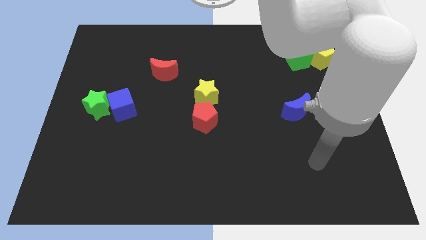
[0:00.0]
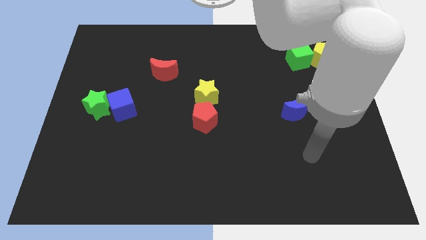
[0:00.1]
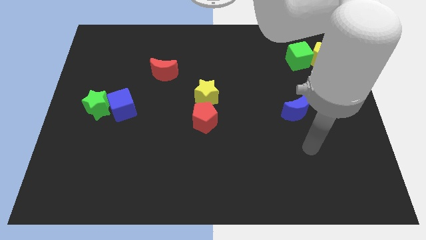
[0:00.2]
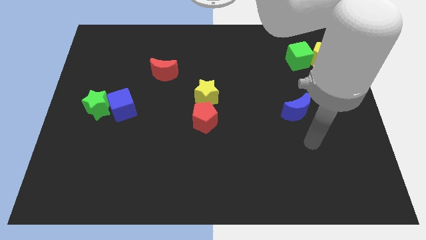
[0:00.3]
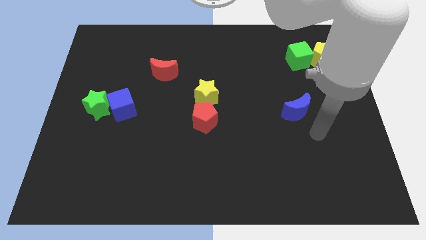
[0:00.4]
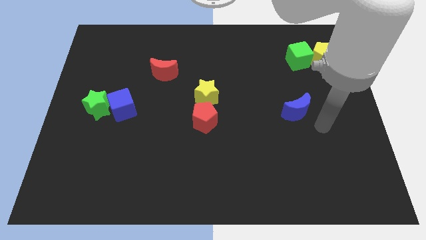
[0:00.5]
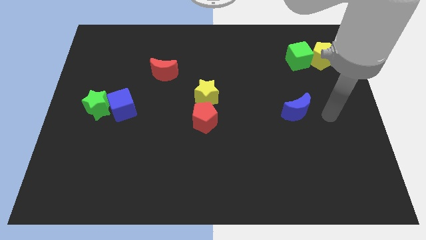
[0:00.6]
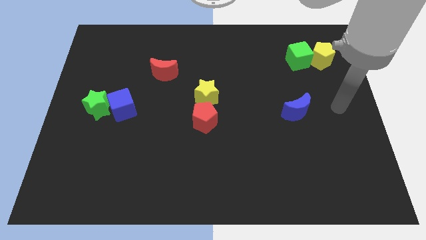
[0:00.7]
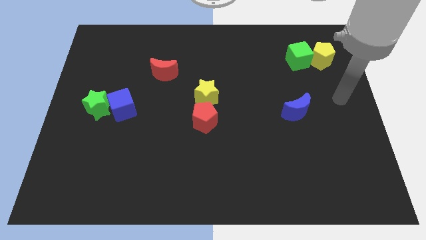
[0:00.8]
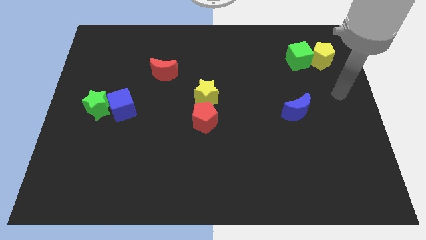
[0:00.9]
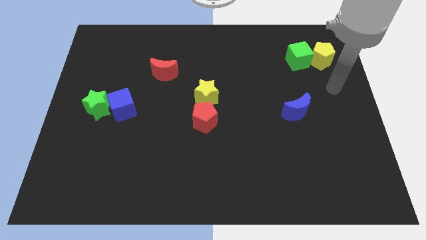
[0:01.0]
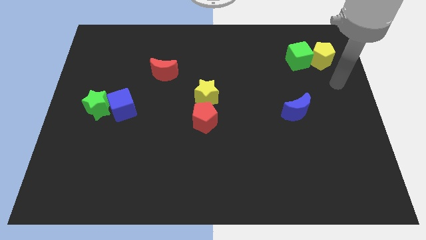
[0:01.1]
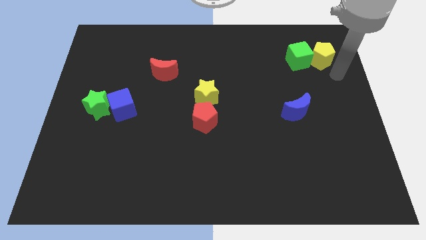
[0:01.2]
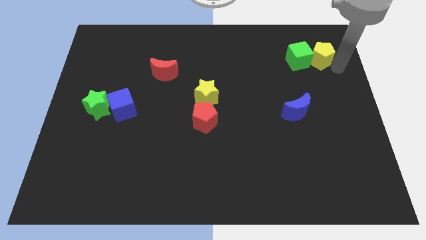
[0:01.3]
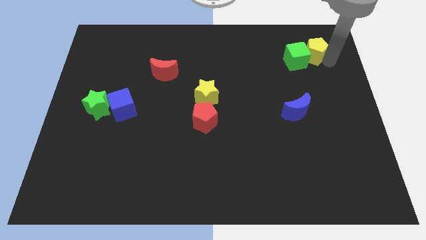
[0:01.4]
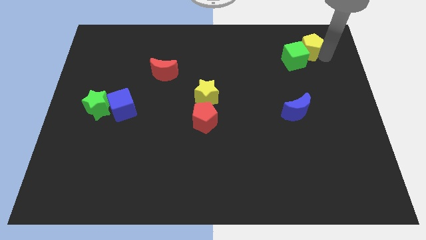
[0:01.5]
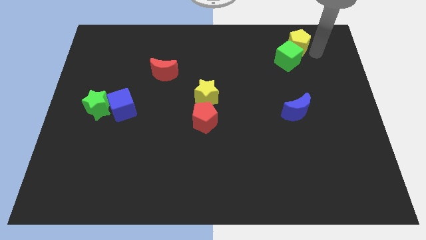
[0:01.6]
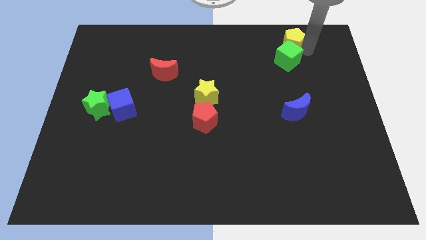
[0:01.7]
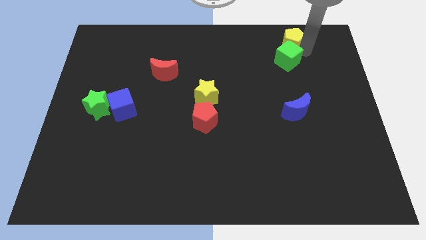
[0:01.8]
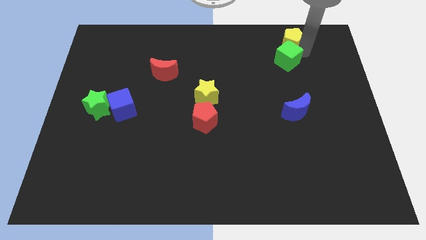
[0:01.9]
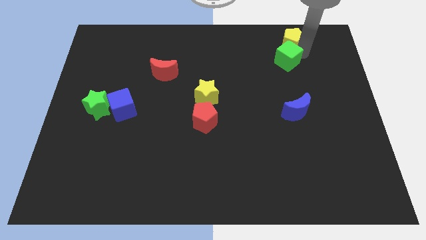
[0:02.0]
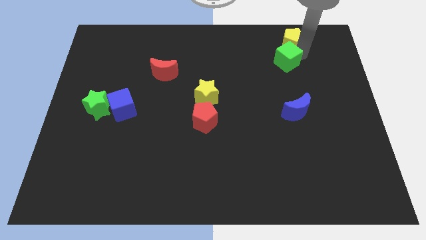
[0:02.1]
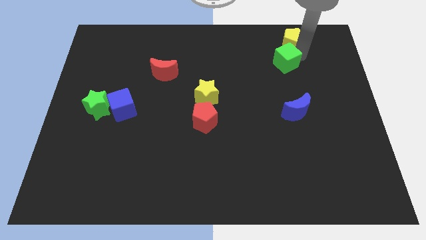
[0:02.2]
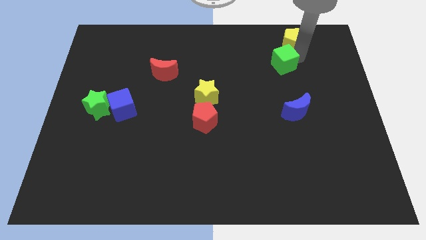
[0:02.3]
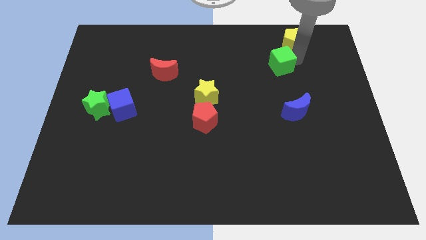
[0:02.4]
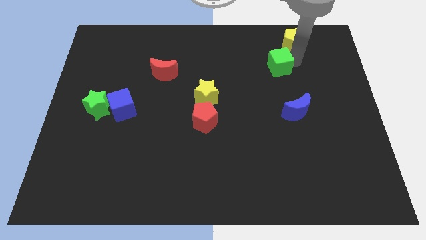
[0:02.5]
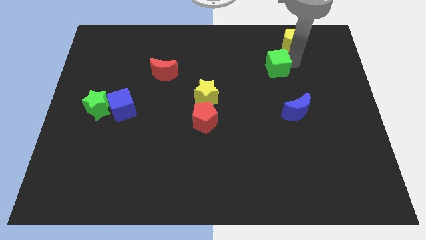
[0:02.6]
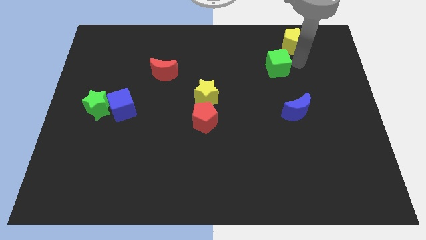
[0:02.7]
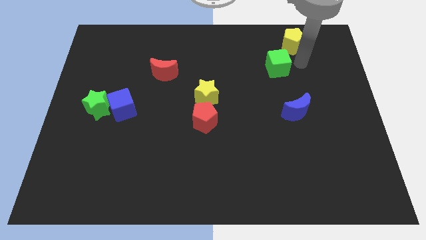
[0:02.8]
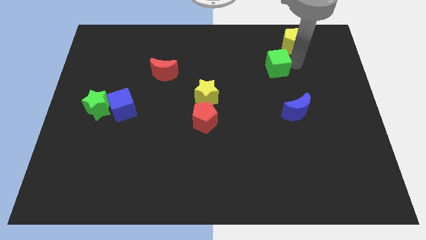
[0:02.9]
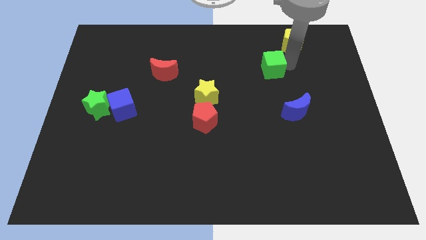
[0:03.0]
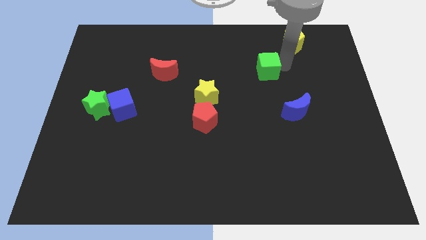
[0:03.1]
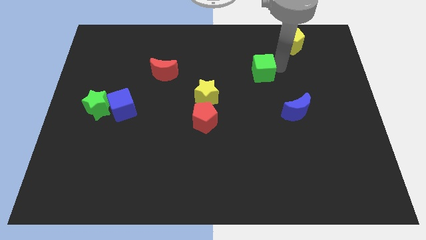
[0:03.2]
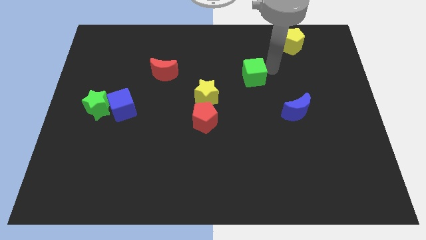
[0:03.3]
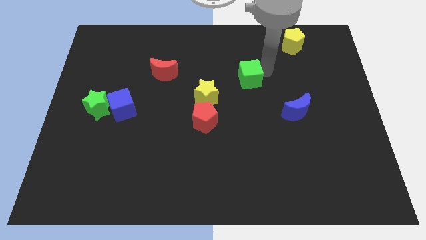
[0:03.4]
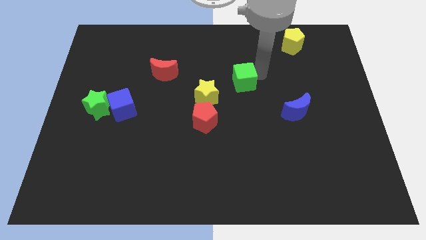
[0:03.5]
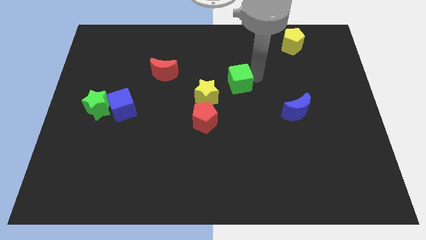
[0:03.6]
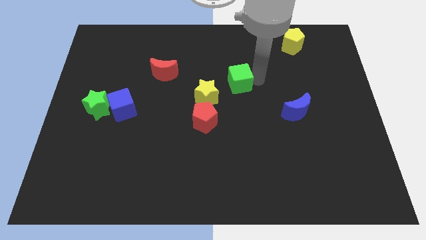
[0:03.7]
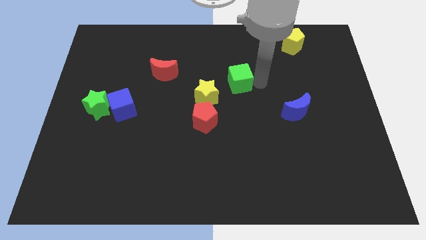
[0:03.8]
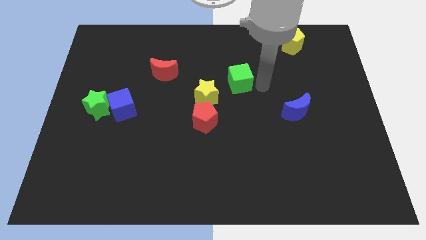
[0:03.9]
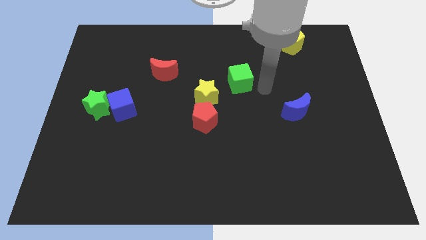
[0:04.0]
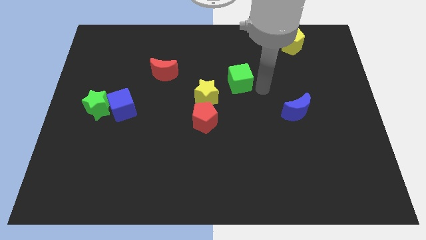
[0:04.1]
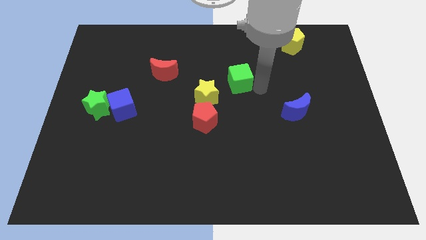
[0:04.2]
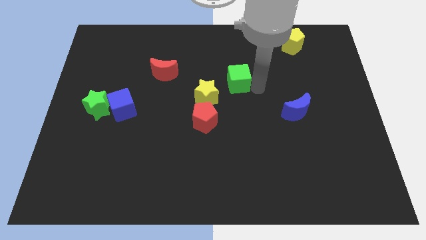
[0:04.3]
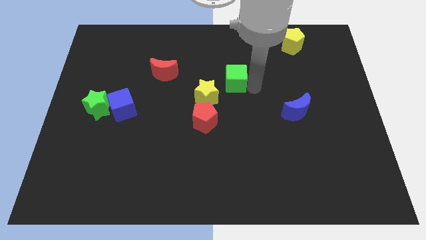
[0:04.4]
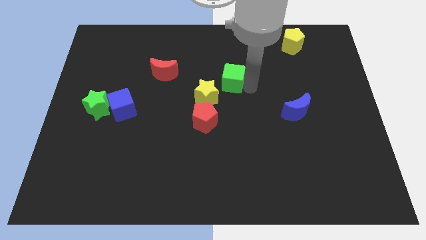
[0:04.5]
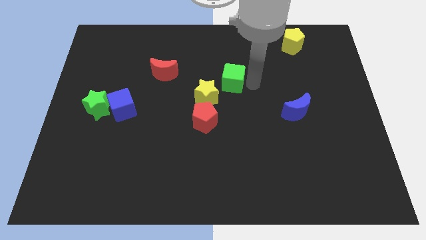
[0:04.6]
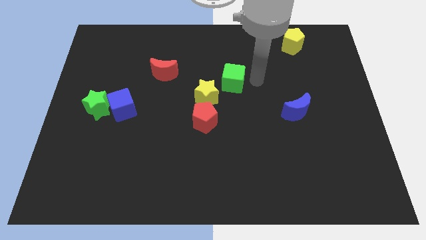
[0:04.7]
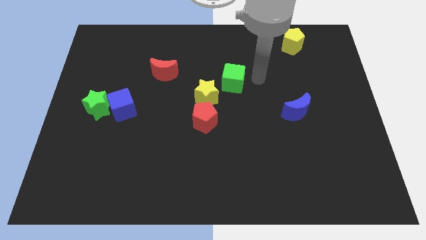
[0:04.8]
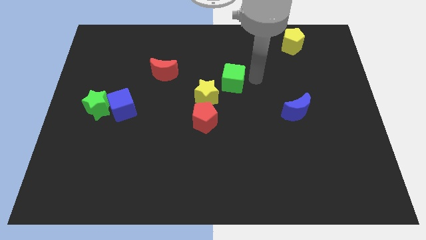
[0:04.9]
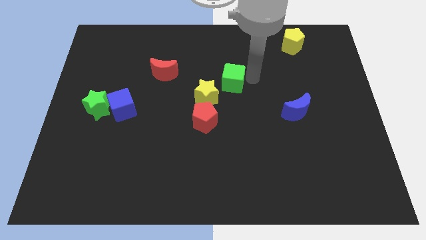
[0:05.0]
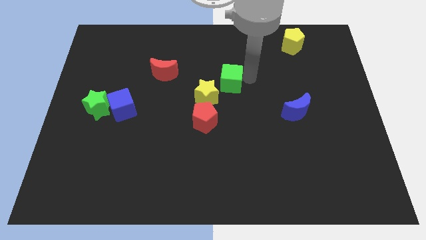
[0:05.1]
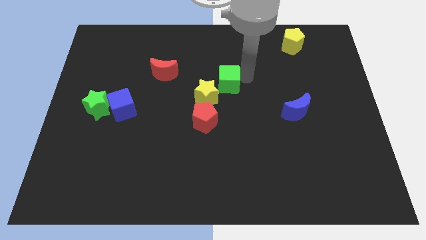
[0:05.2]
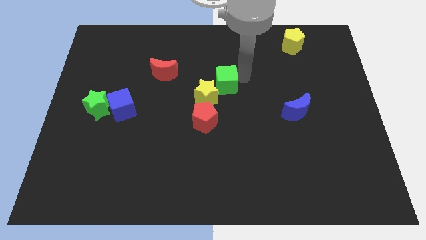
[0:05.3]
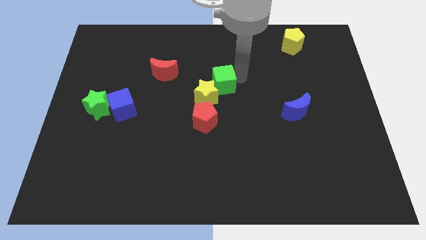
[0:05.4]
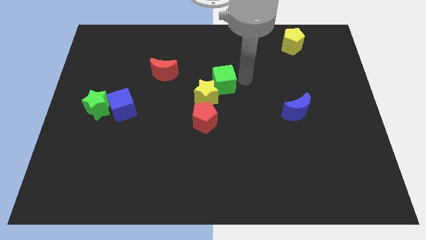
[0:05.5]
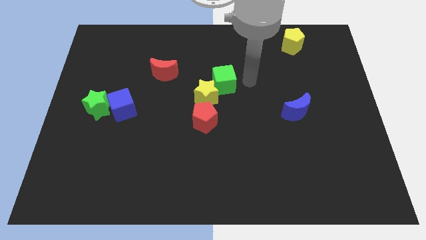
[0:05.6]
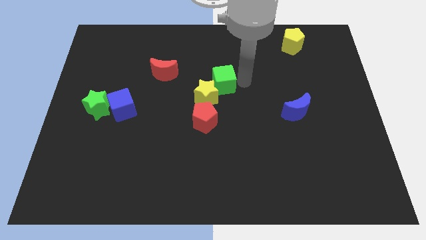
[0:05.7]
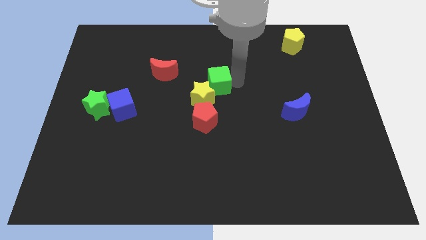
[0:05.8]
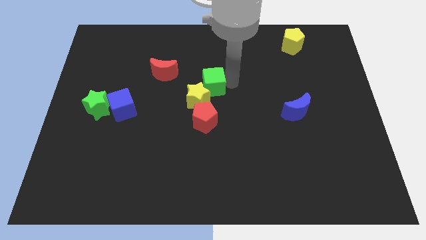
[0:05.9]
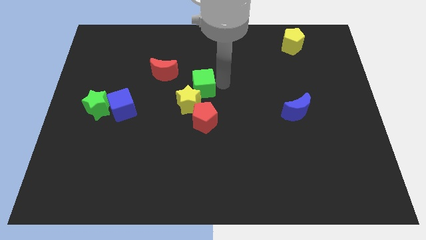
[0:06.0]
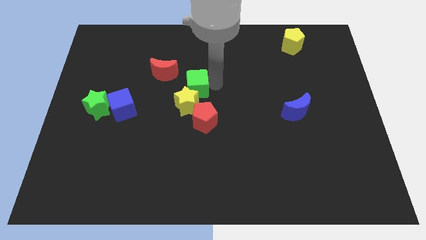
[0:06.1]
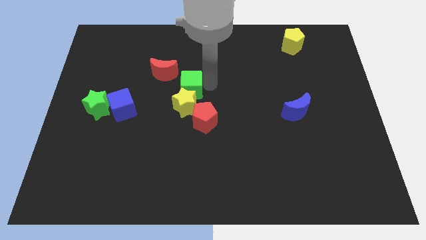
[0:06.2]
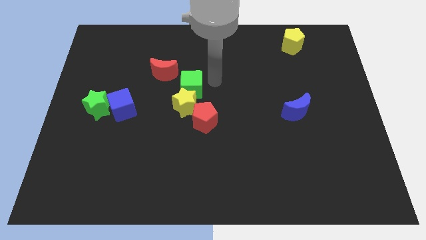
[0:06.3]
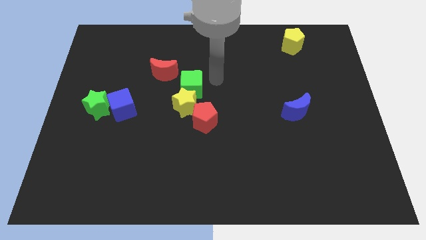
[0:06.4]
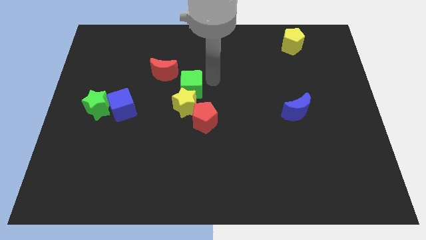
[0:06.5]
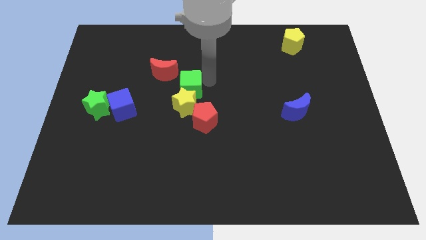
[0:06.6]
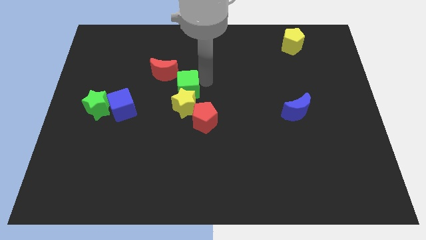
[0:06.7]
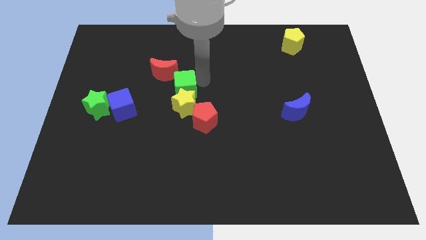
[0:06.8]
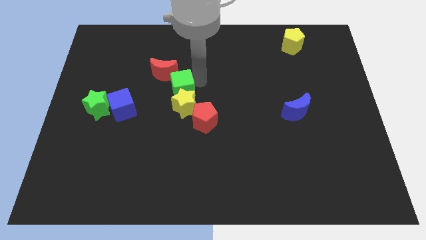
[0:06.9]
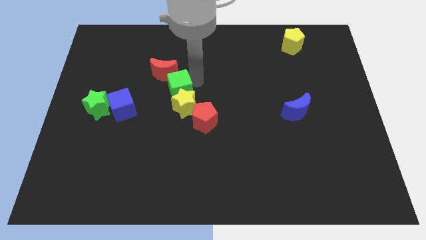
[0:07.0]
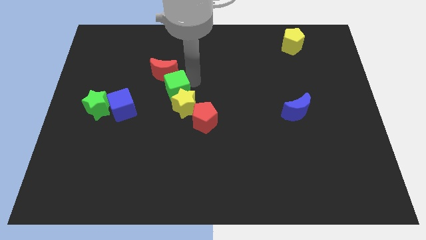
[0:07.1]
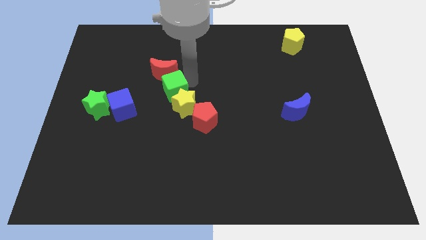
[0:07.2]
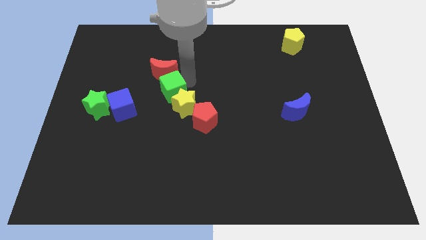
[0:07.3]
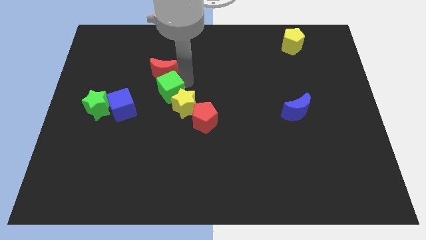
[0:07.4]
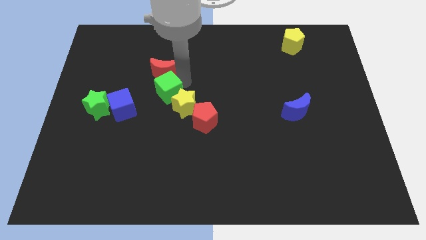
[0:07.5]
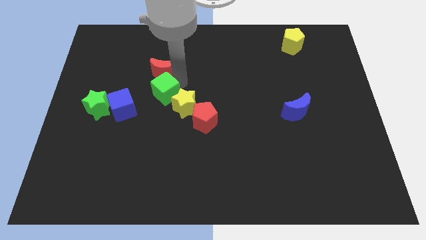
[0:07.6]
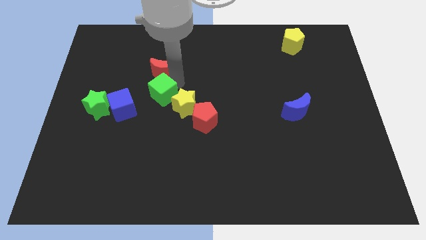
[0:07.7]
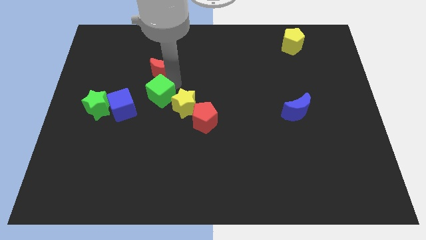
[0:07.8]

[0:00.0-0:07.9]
move the green cube just right of the green star
